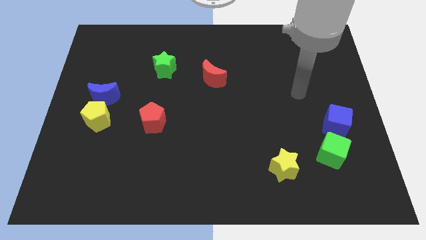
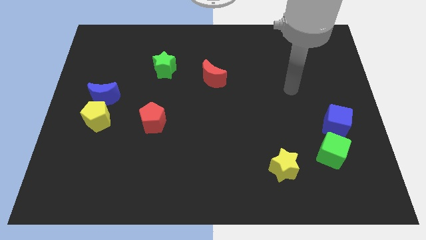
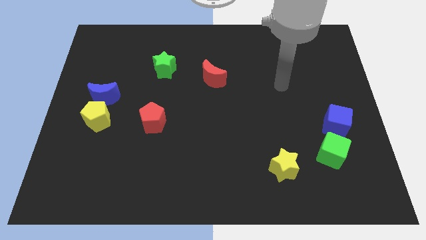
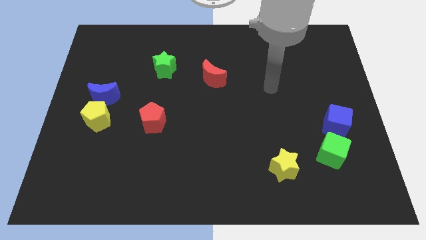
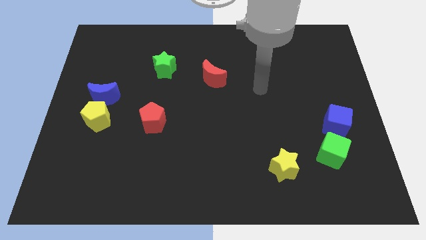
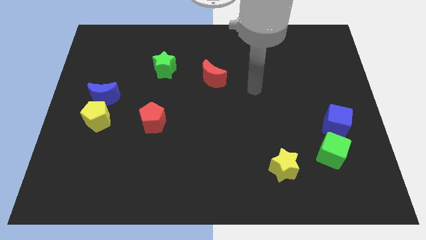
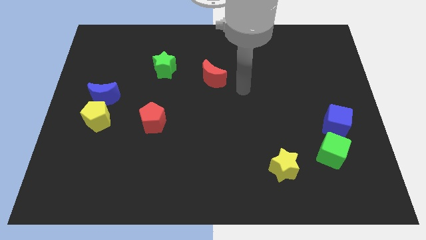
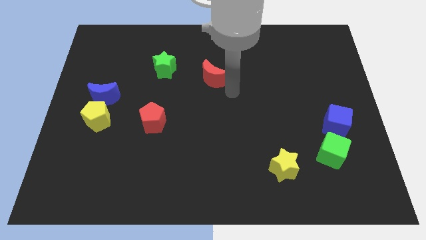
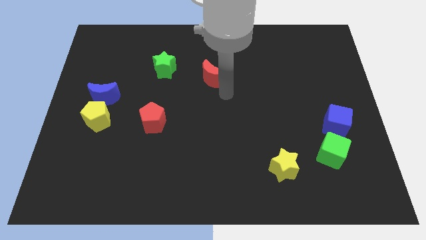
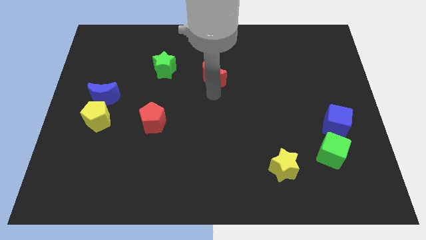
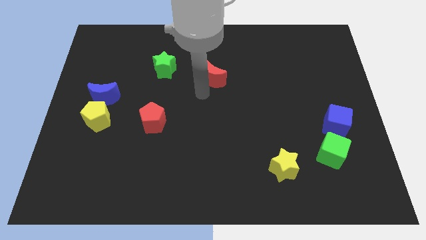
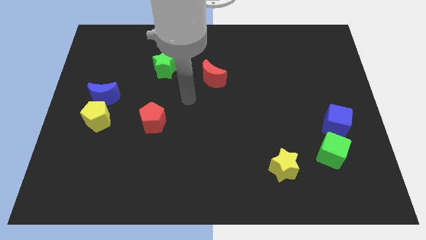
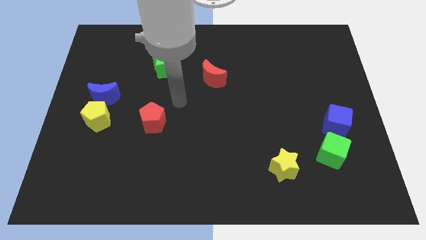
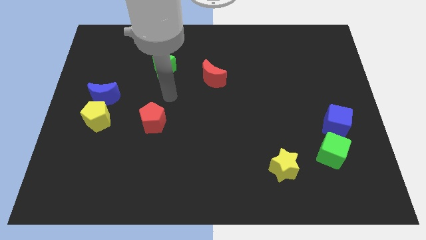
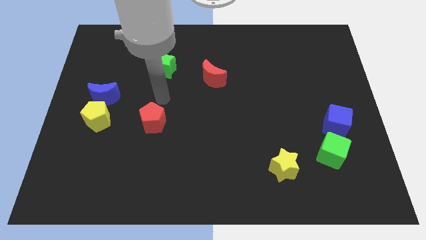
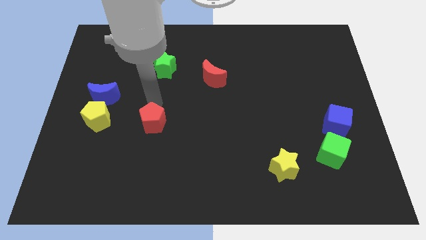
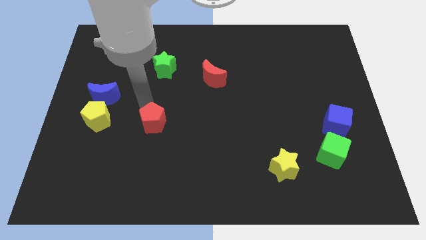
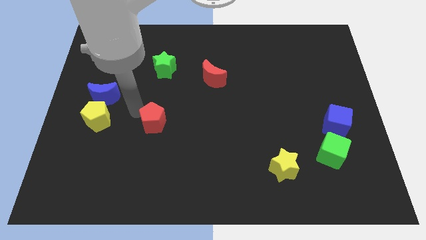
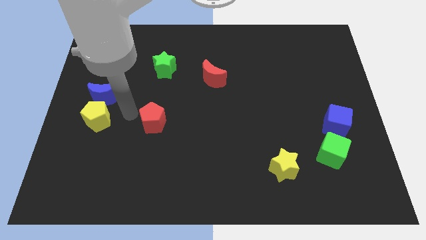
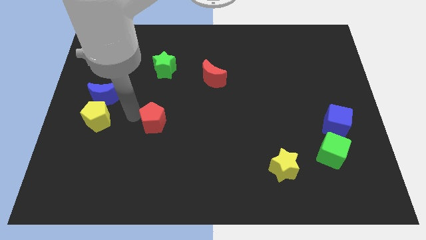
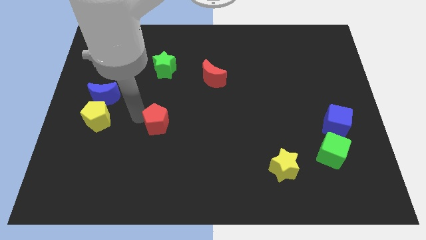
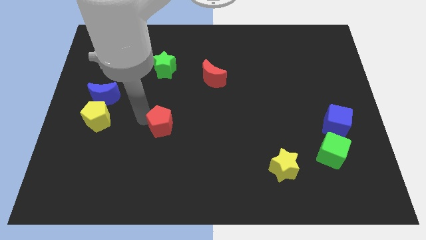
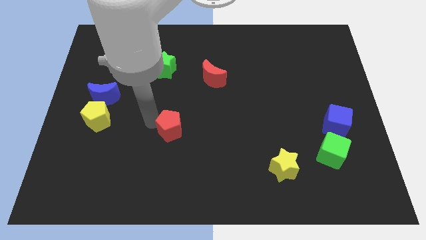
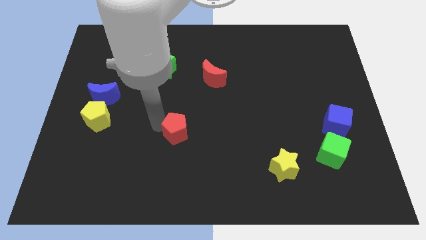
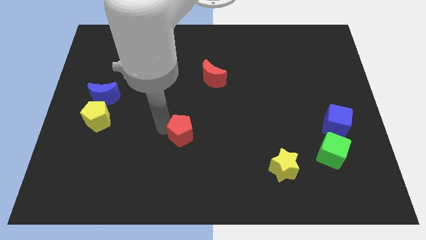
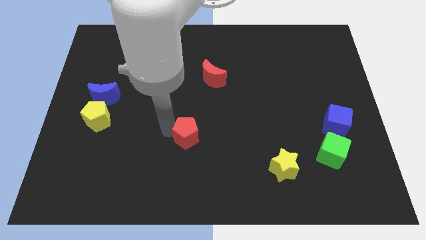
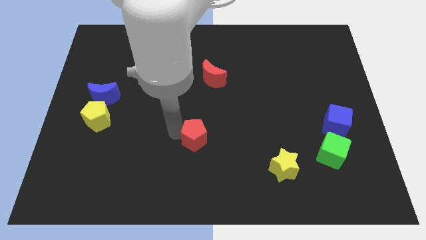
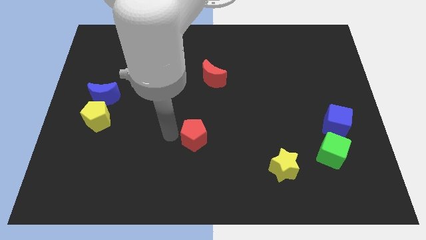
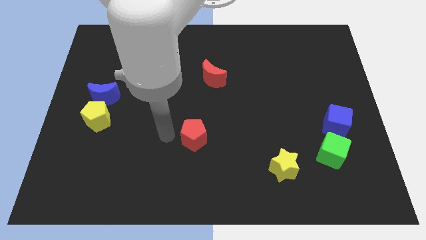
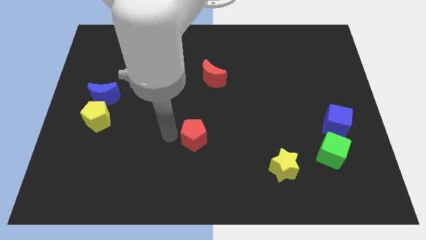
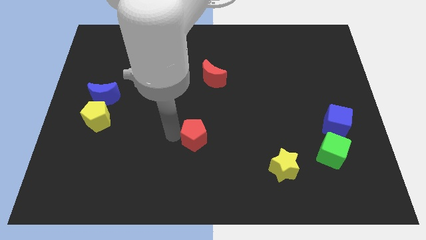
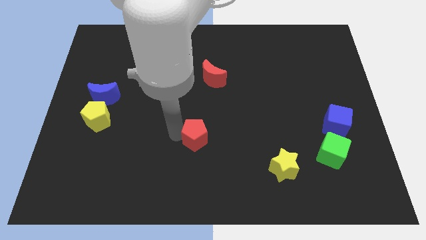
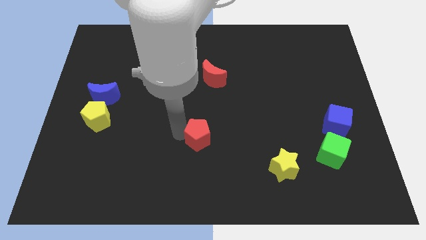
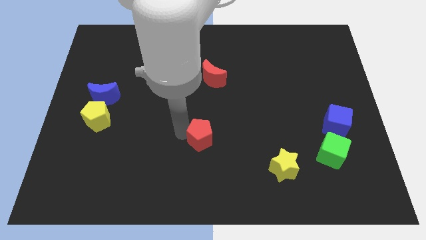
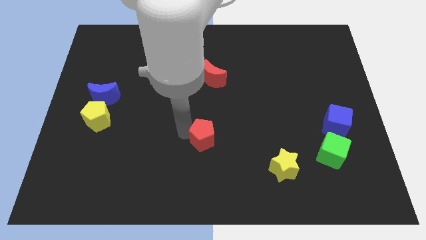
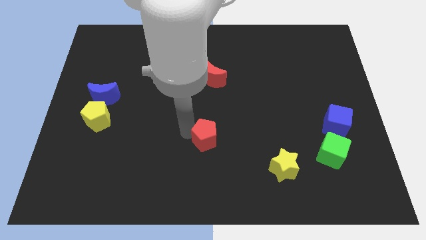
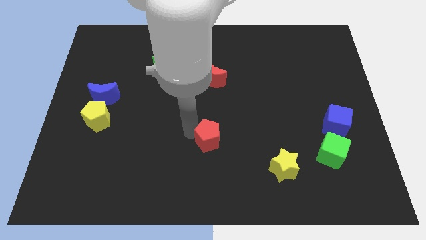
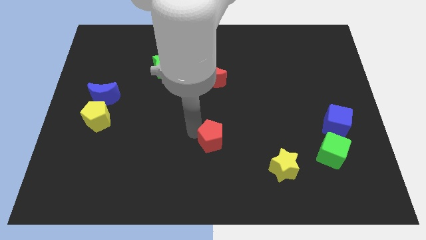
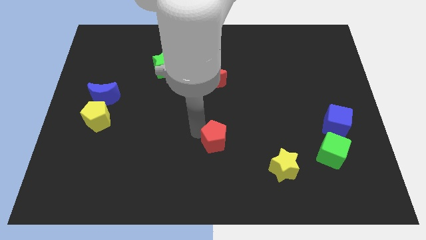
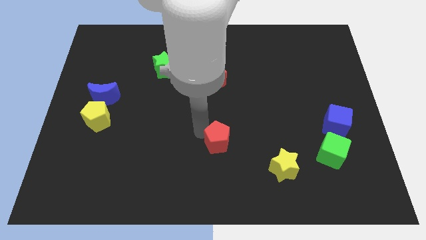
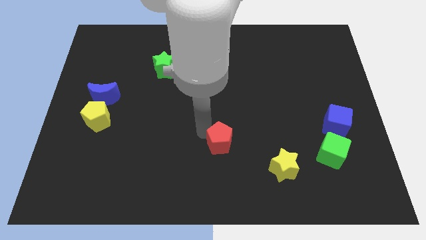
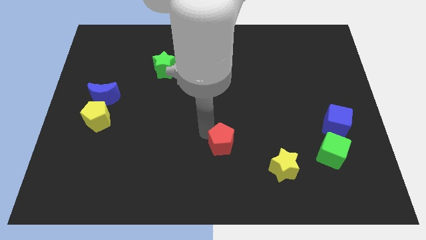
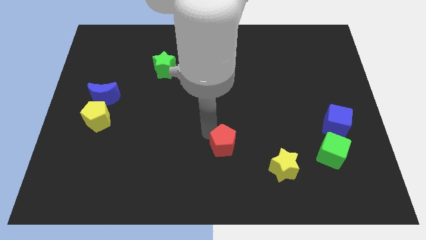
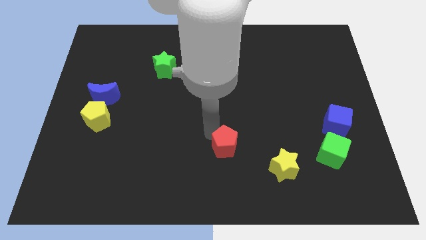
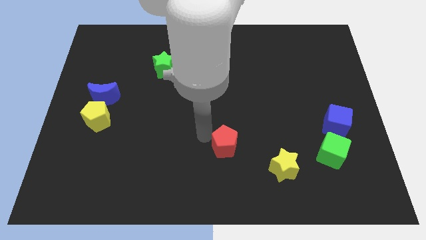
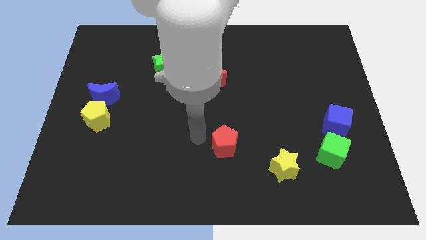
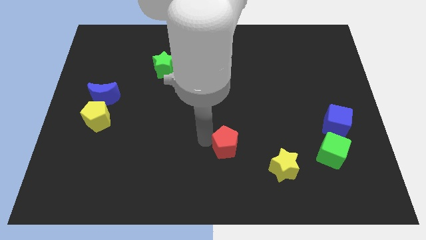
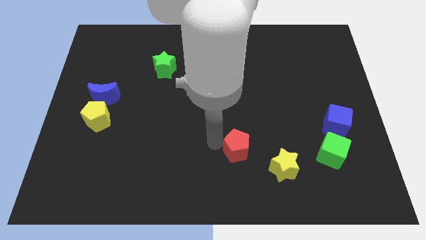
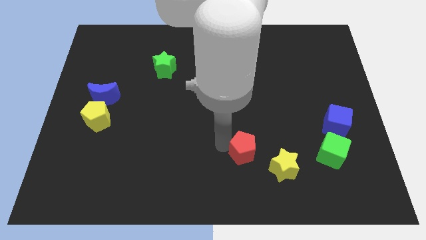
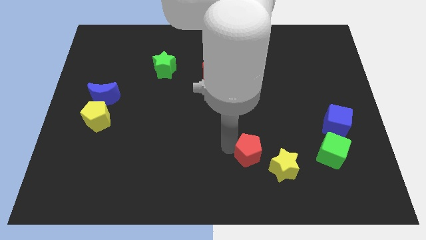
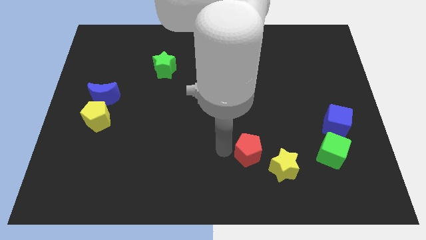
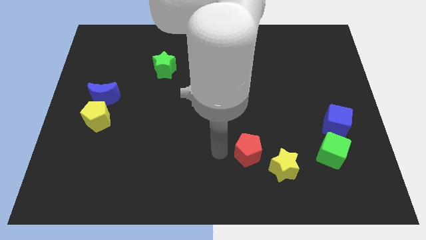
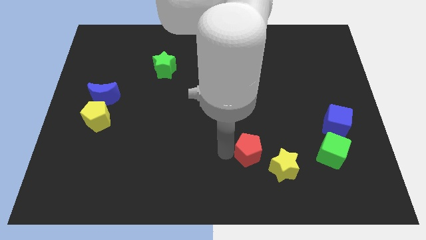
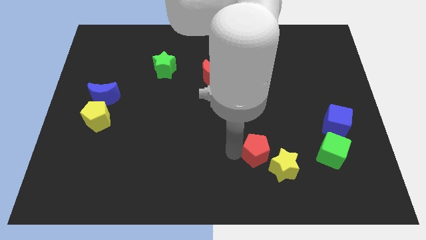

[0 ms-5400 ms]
move the red pentagon to the left side of the green cube

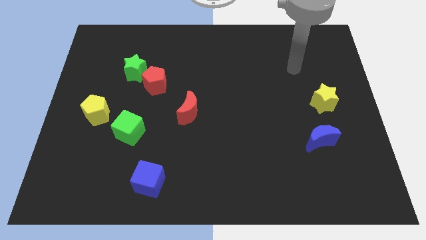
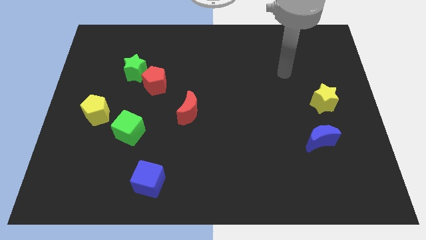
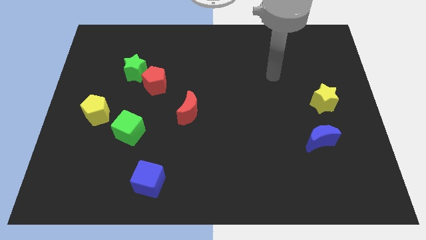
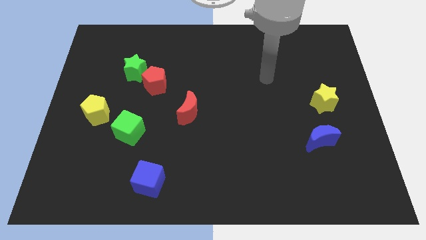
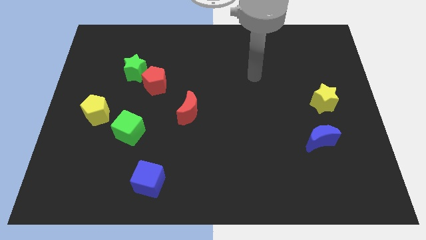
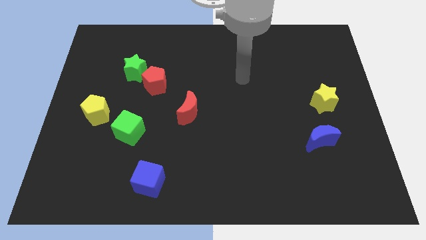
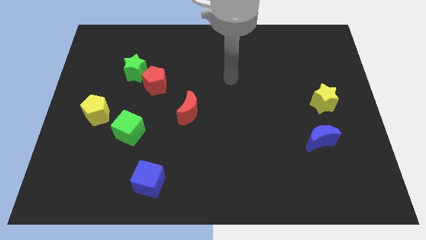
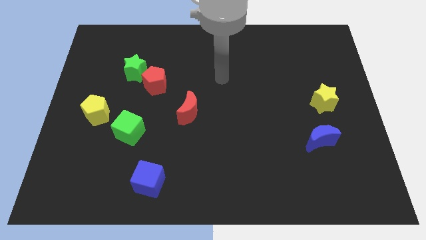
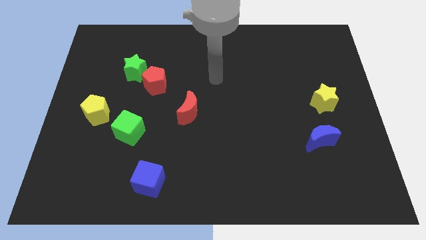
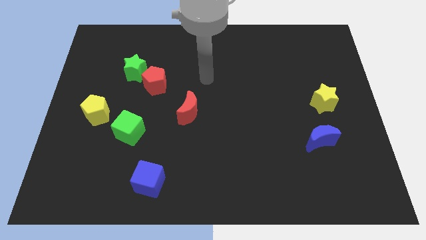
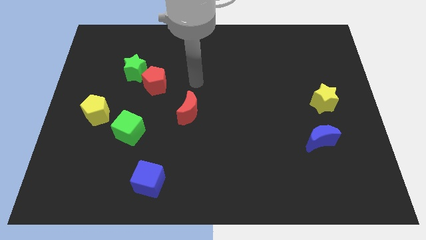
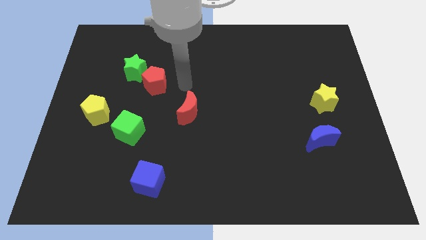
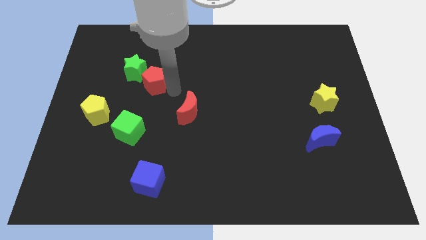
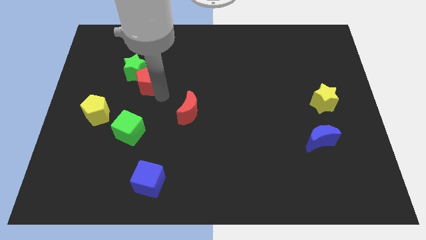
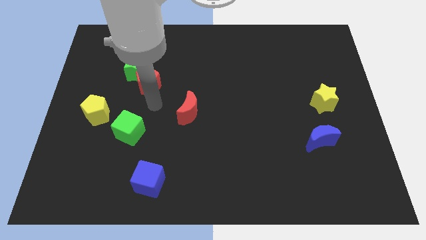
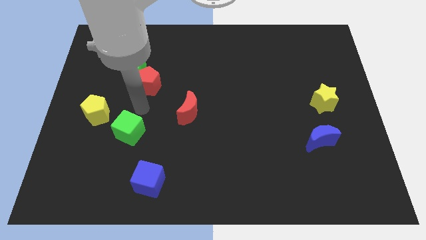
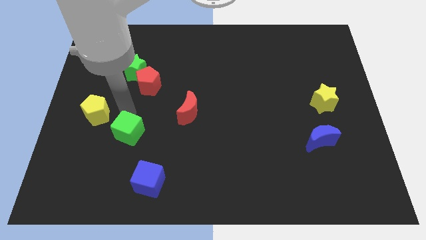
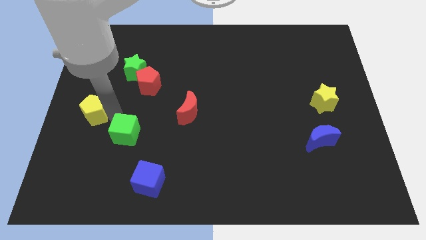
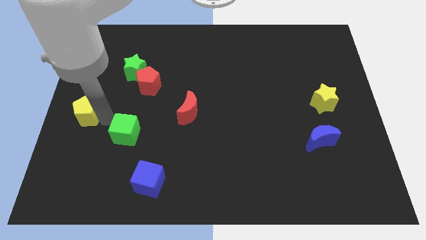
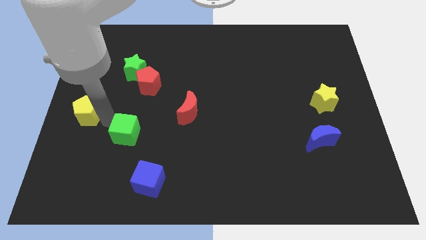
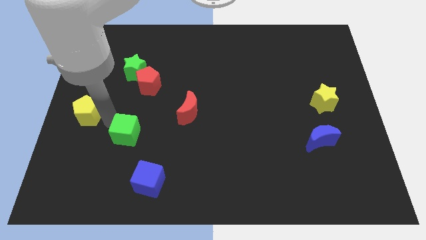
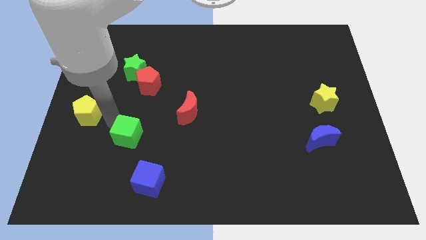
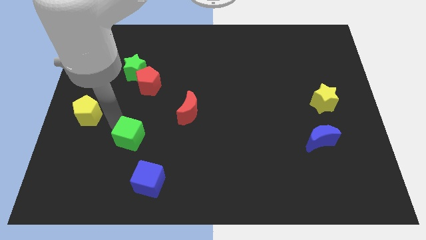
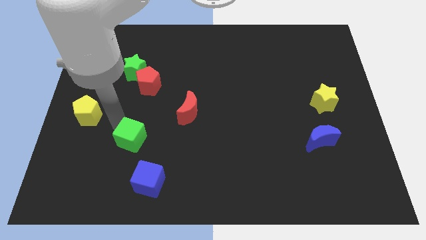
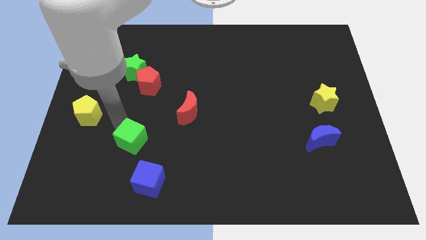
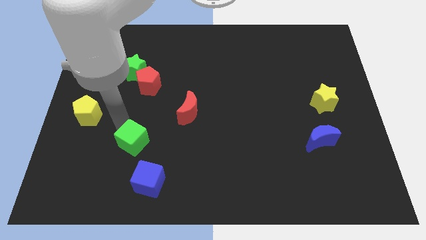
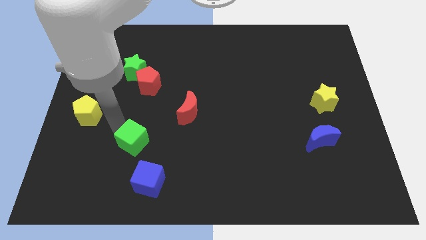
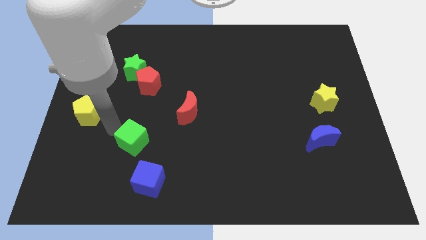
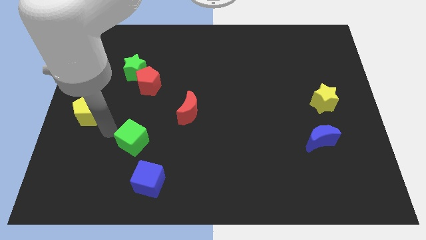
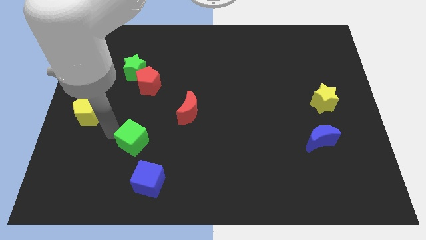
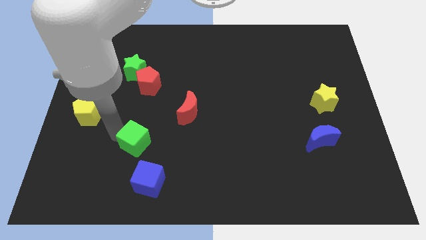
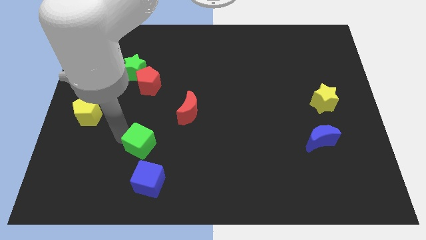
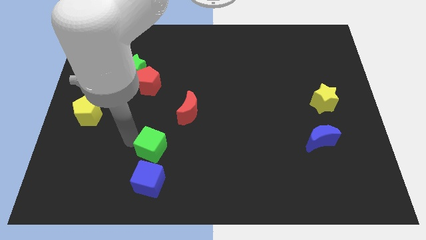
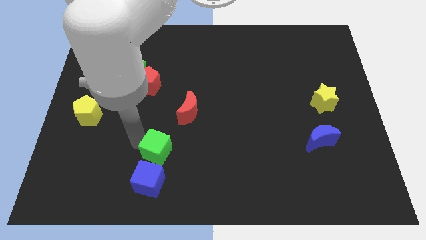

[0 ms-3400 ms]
move the green cube to the top right of the blue cube
